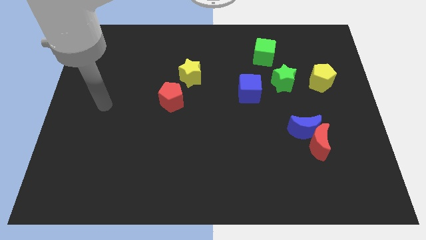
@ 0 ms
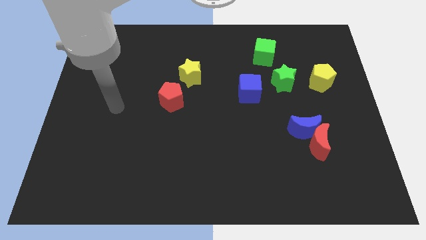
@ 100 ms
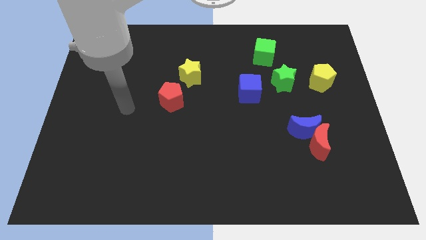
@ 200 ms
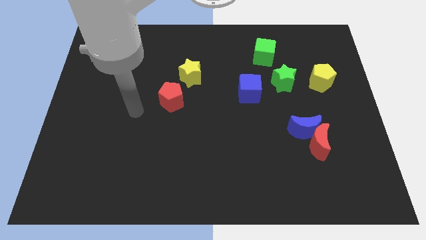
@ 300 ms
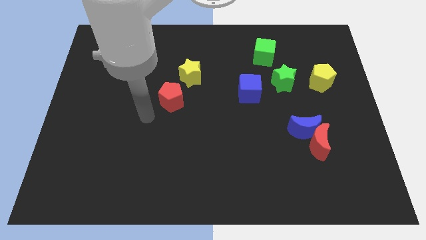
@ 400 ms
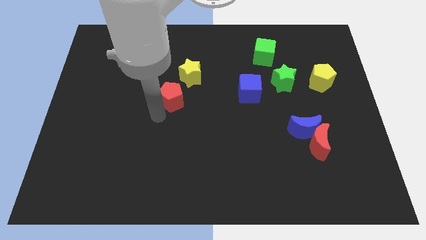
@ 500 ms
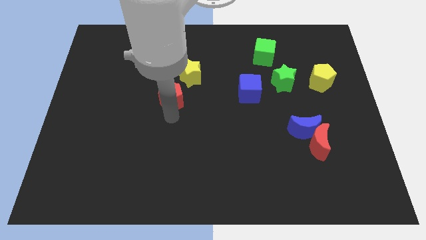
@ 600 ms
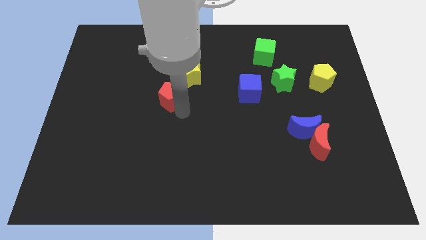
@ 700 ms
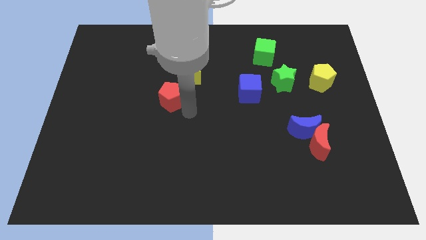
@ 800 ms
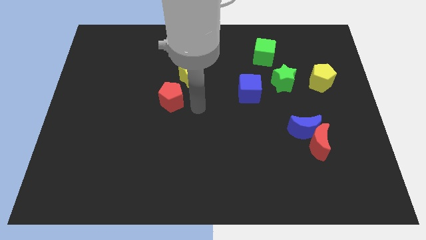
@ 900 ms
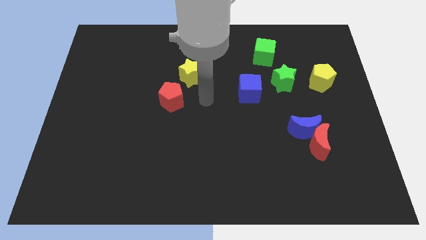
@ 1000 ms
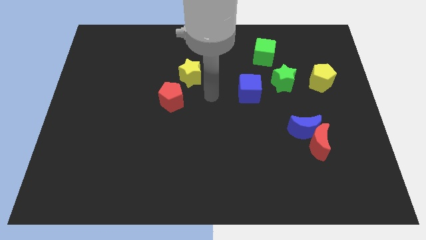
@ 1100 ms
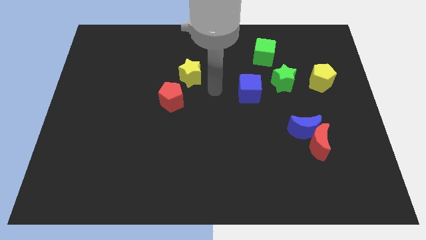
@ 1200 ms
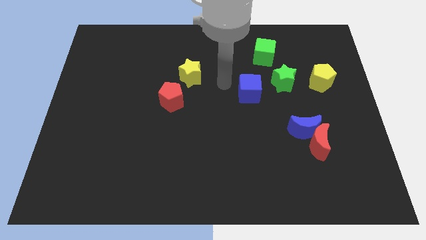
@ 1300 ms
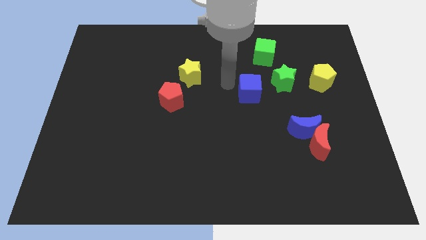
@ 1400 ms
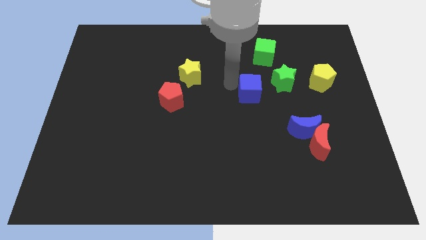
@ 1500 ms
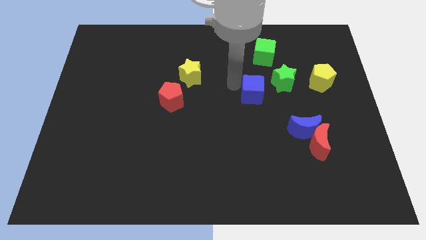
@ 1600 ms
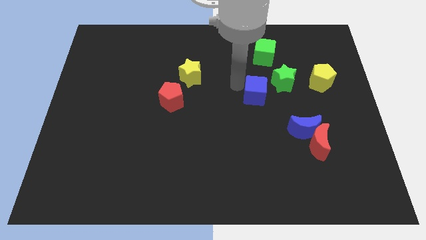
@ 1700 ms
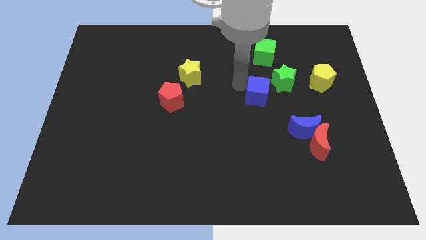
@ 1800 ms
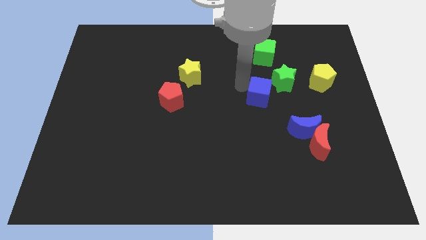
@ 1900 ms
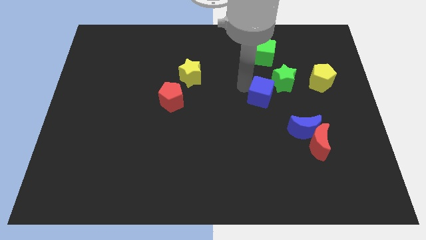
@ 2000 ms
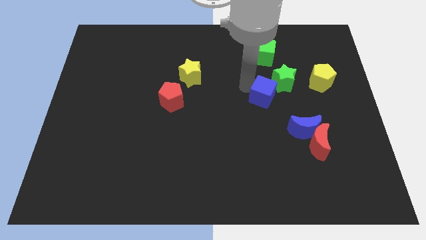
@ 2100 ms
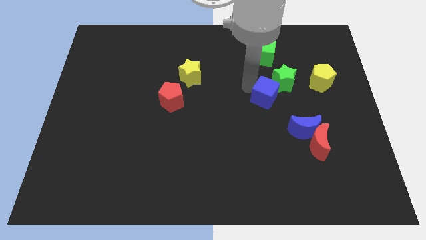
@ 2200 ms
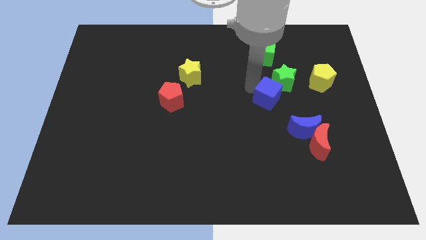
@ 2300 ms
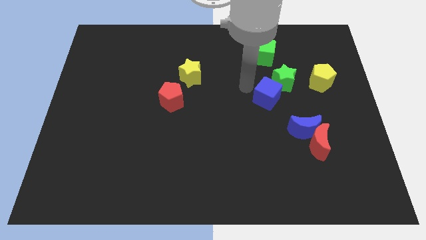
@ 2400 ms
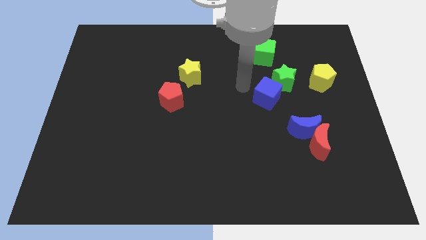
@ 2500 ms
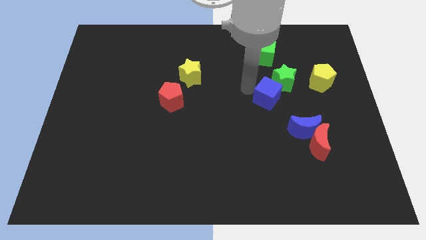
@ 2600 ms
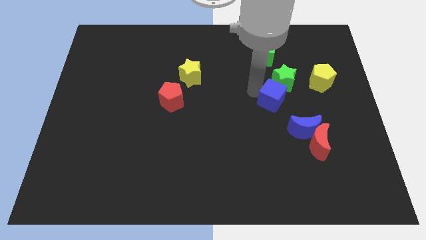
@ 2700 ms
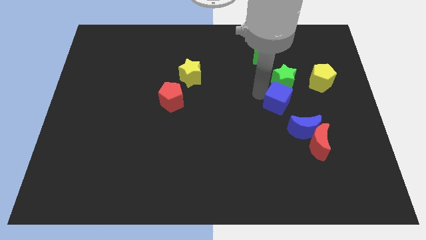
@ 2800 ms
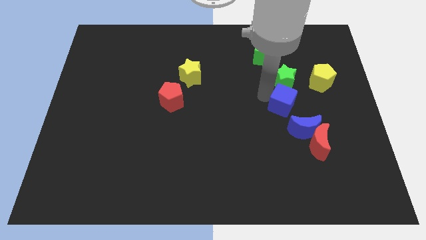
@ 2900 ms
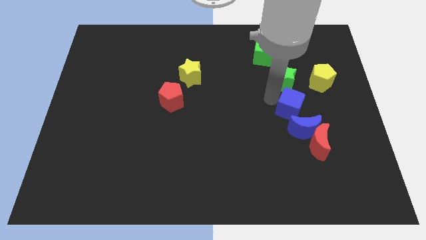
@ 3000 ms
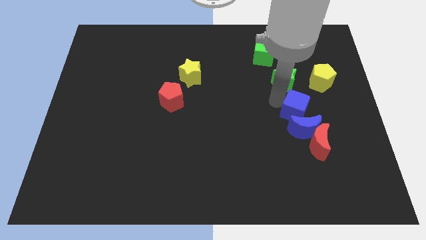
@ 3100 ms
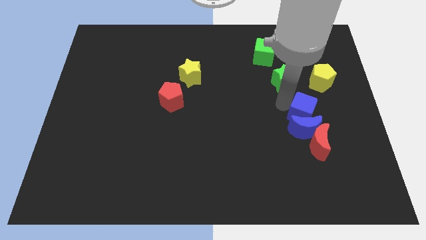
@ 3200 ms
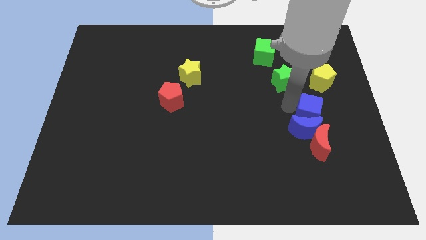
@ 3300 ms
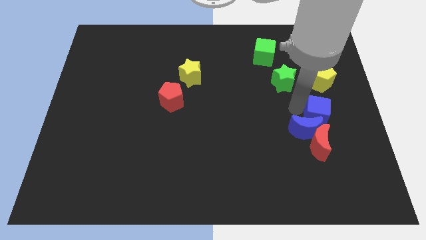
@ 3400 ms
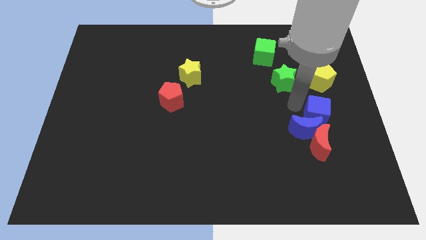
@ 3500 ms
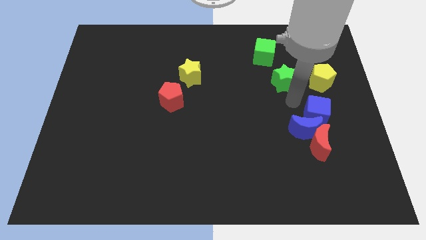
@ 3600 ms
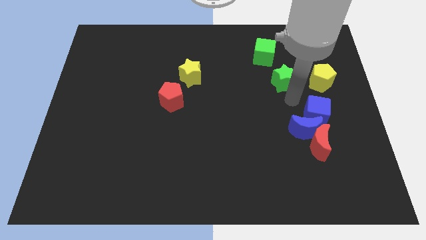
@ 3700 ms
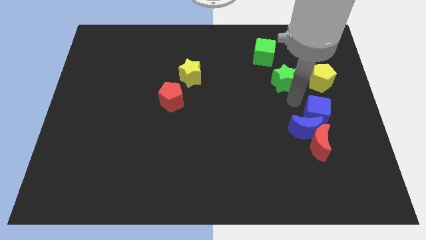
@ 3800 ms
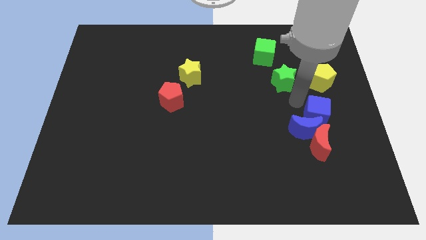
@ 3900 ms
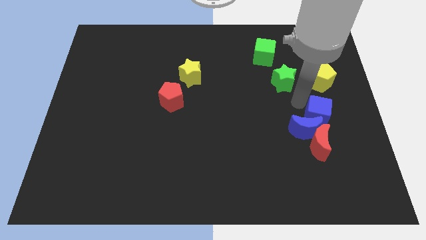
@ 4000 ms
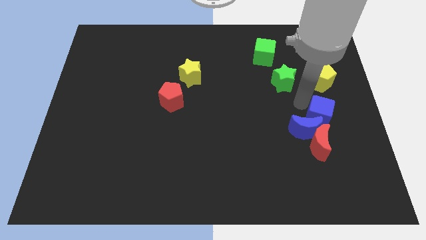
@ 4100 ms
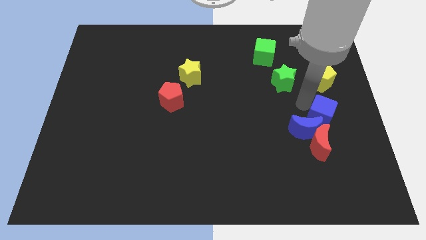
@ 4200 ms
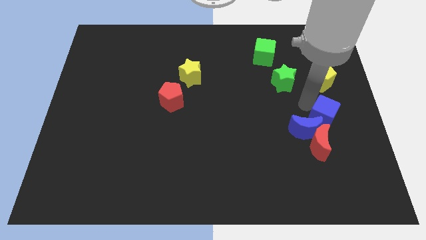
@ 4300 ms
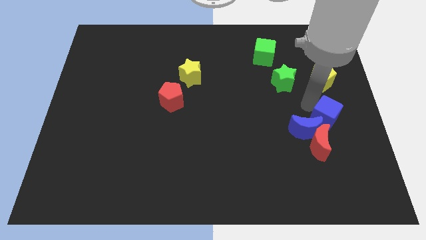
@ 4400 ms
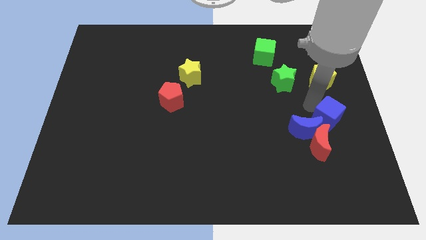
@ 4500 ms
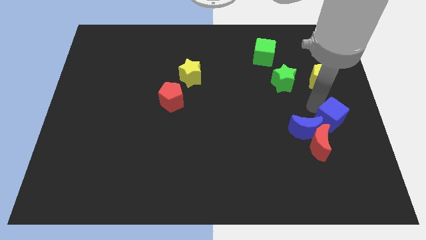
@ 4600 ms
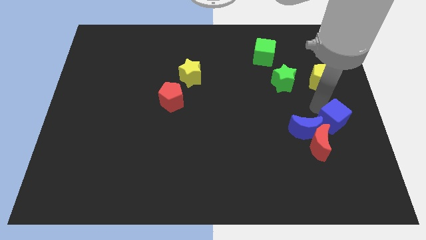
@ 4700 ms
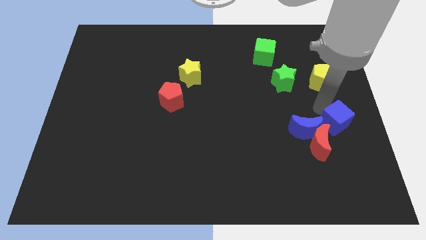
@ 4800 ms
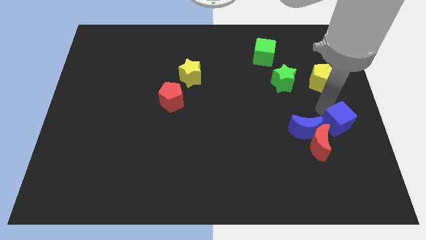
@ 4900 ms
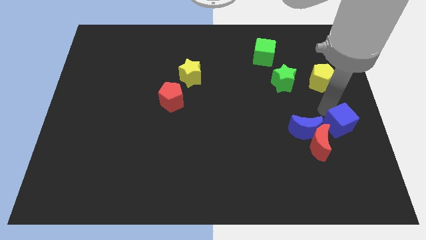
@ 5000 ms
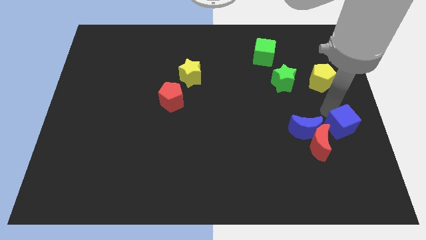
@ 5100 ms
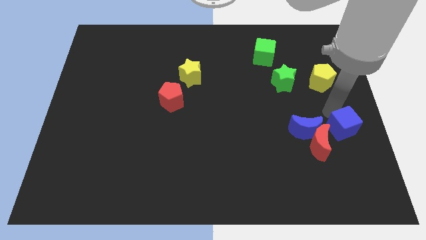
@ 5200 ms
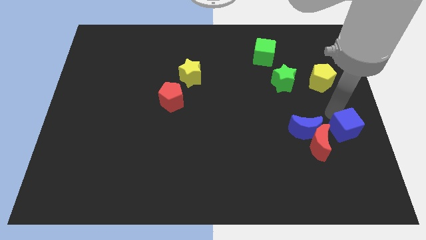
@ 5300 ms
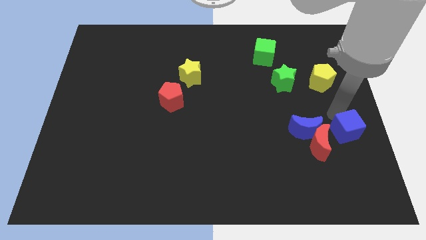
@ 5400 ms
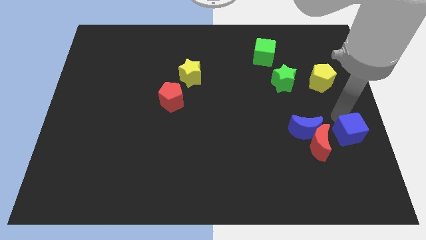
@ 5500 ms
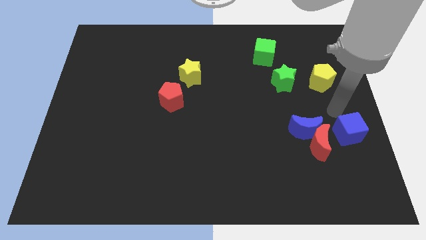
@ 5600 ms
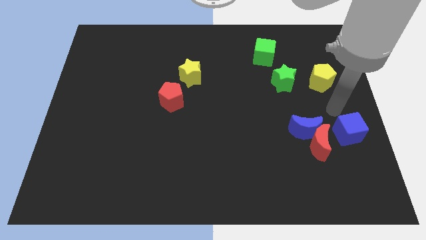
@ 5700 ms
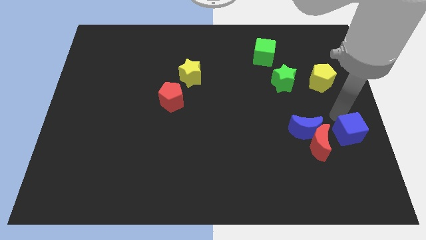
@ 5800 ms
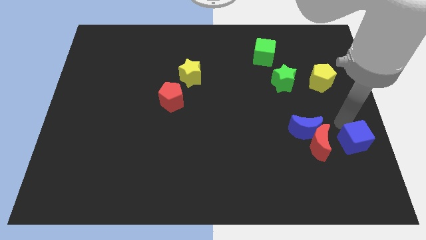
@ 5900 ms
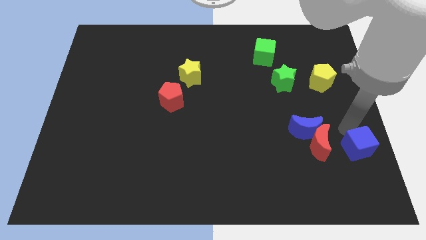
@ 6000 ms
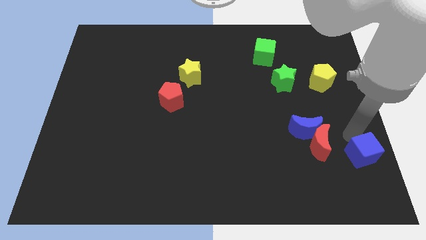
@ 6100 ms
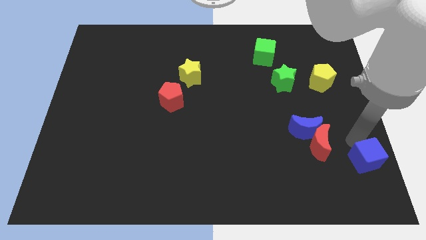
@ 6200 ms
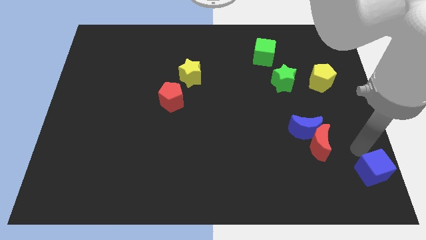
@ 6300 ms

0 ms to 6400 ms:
slide the blue cube to the bottom right of the board
